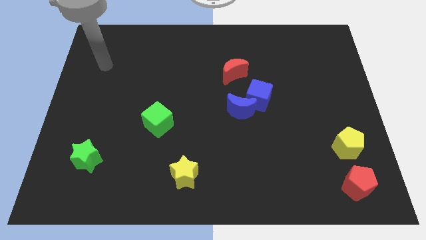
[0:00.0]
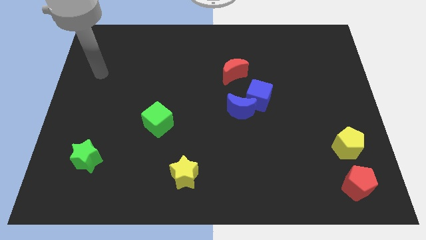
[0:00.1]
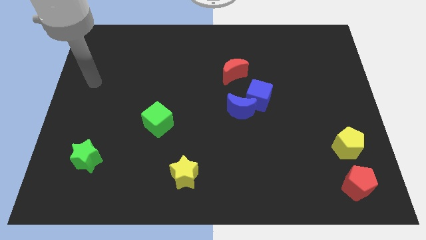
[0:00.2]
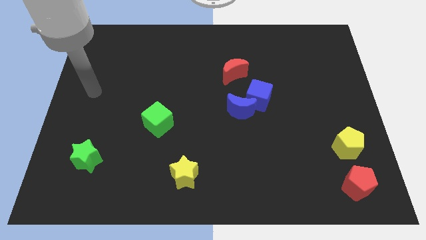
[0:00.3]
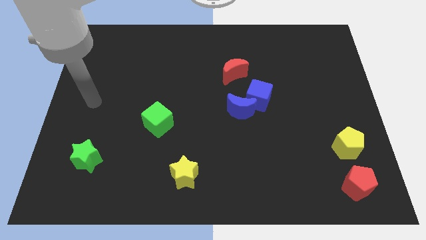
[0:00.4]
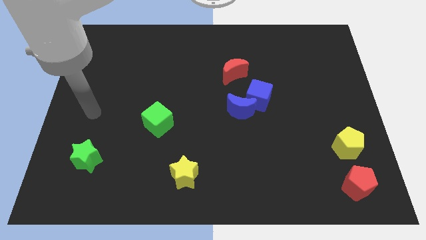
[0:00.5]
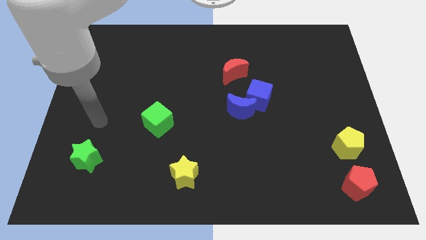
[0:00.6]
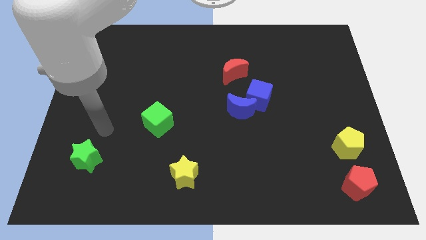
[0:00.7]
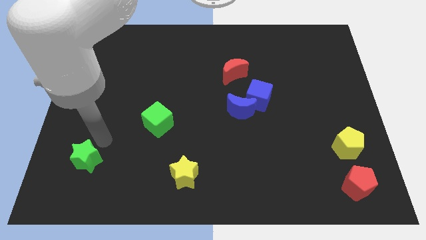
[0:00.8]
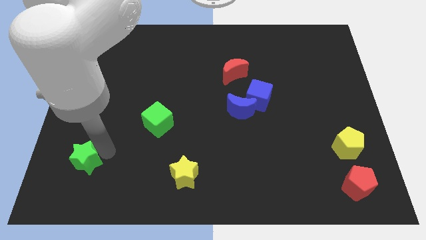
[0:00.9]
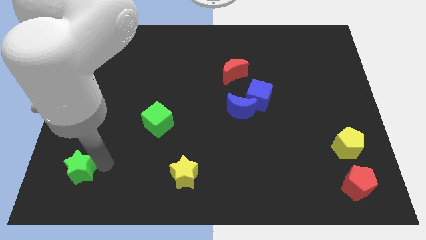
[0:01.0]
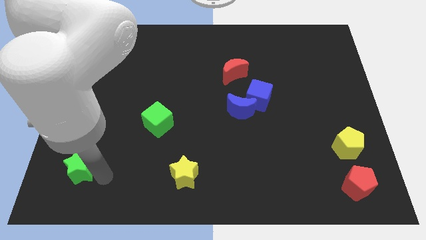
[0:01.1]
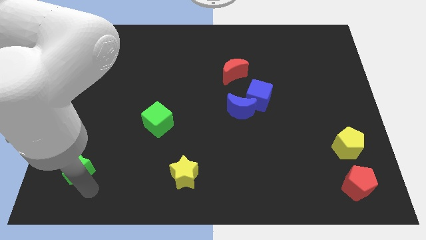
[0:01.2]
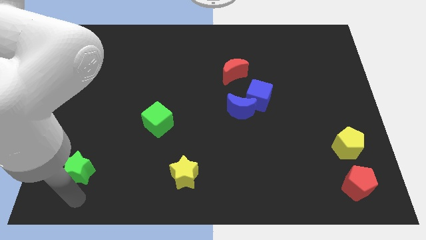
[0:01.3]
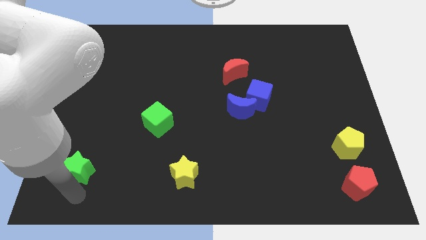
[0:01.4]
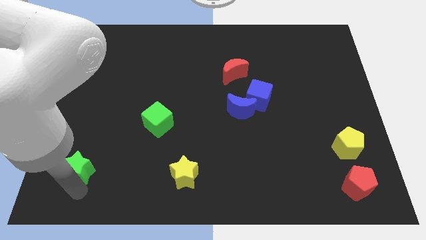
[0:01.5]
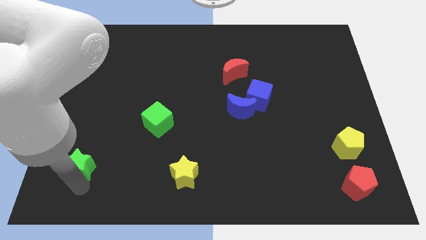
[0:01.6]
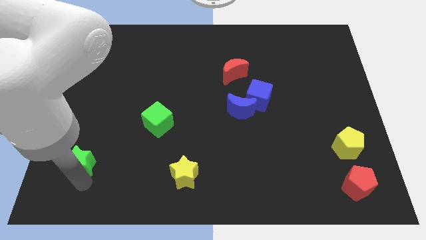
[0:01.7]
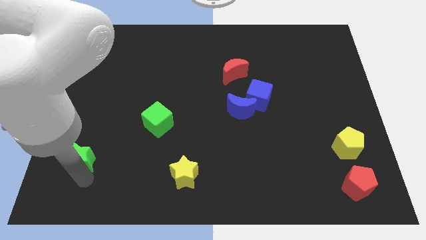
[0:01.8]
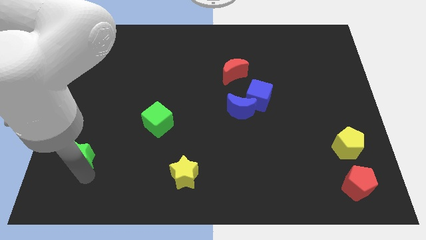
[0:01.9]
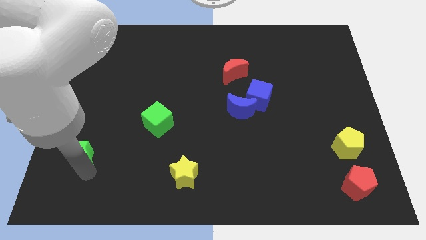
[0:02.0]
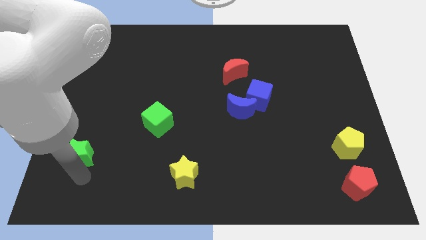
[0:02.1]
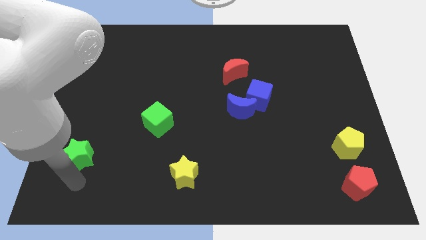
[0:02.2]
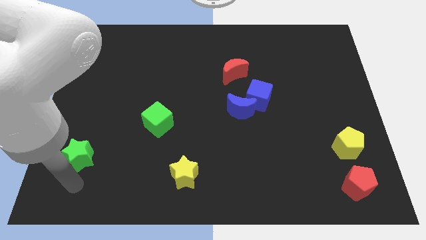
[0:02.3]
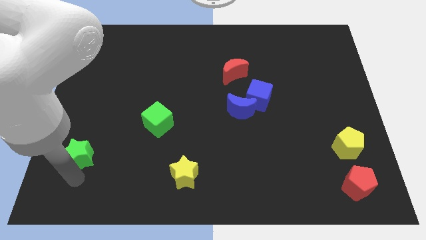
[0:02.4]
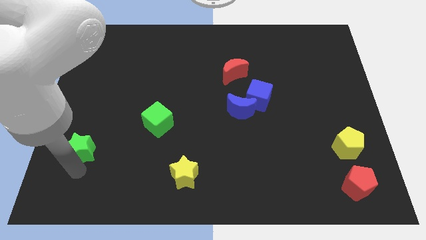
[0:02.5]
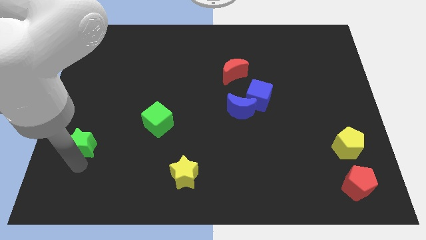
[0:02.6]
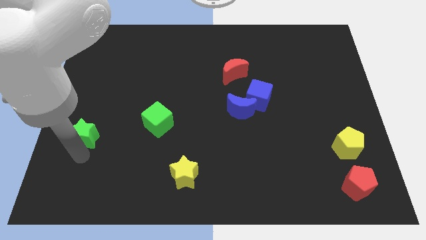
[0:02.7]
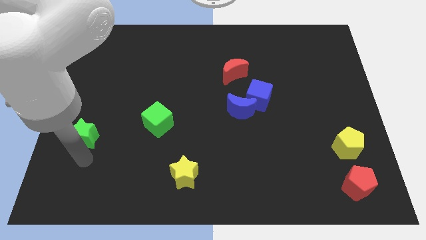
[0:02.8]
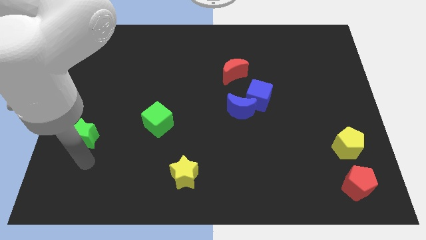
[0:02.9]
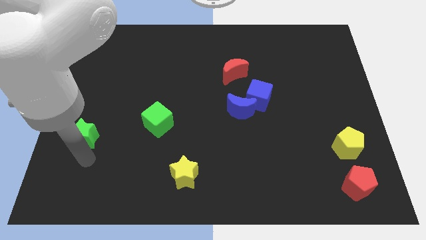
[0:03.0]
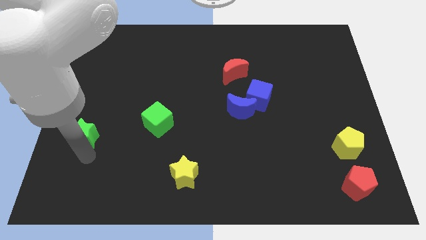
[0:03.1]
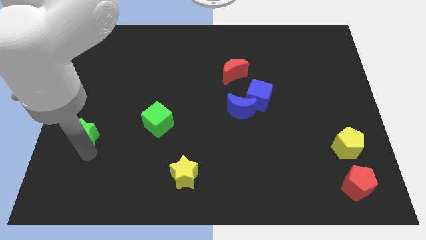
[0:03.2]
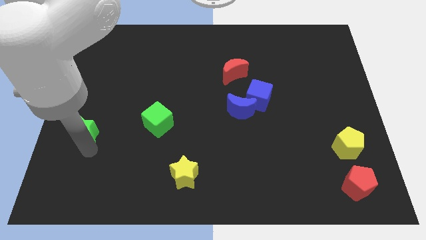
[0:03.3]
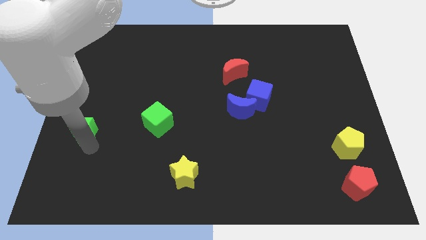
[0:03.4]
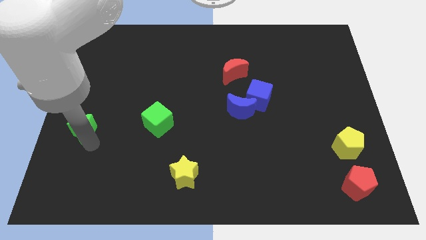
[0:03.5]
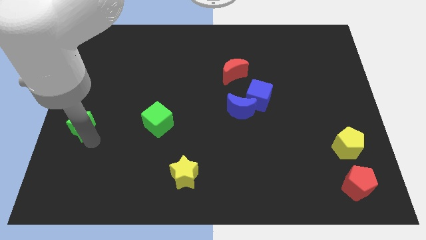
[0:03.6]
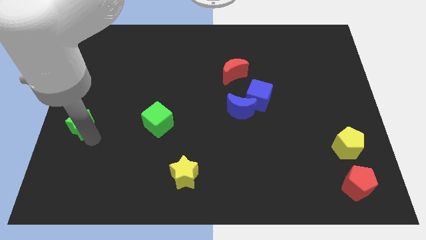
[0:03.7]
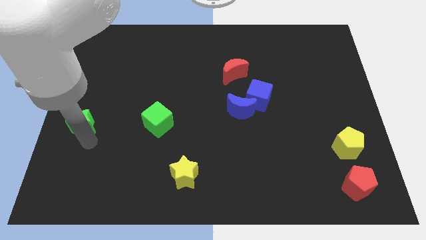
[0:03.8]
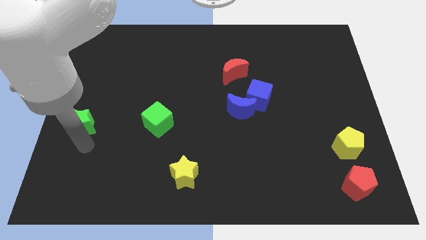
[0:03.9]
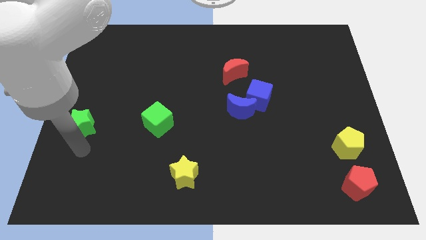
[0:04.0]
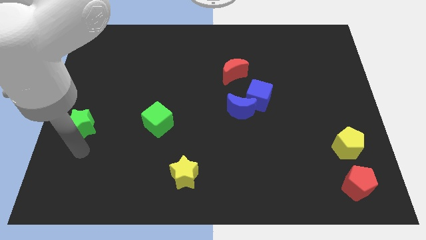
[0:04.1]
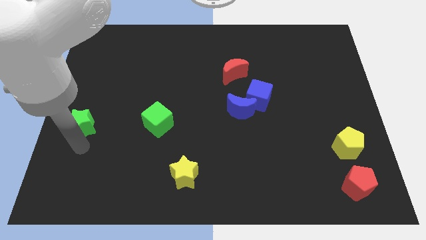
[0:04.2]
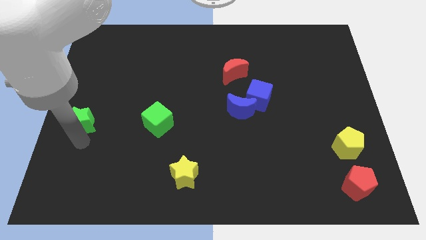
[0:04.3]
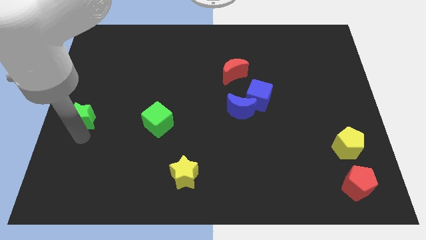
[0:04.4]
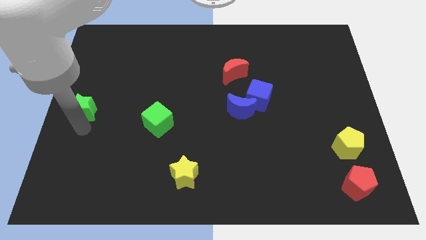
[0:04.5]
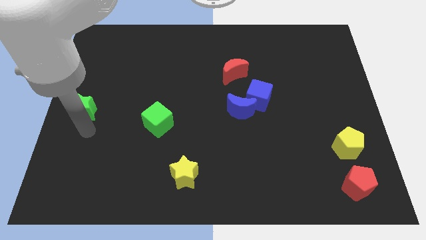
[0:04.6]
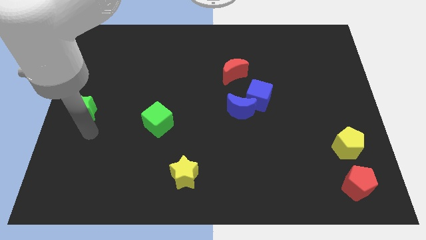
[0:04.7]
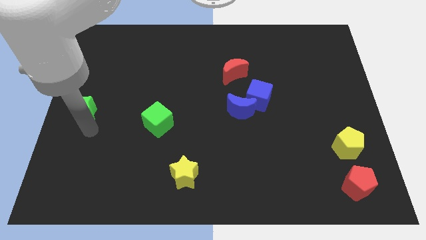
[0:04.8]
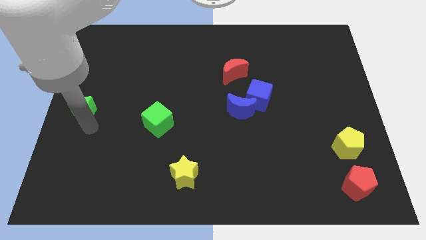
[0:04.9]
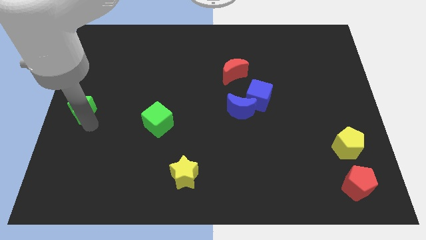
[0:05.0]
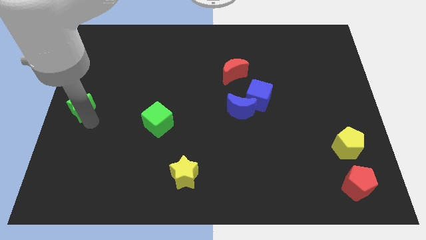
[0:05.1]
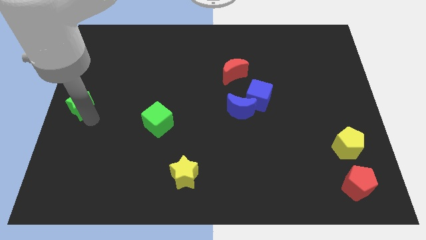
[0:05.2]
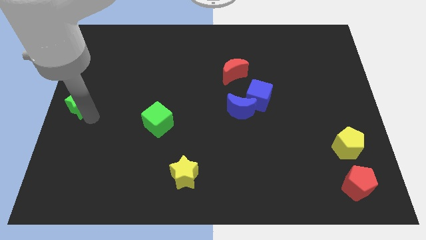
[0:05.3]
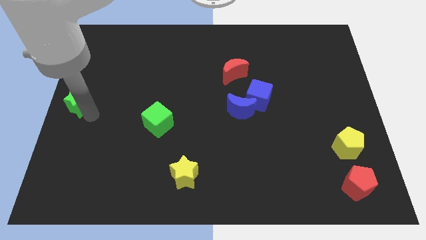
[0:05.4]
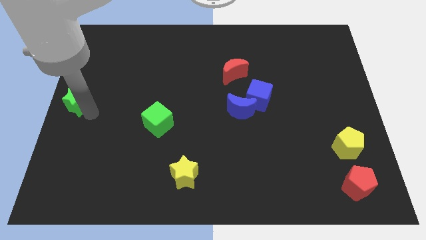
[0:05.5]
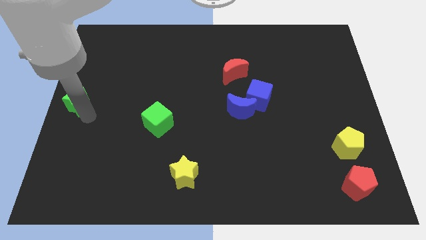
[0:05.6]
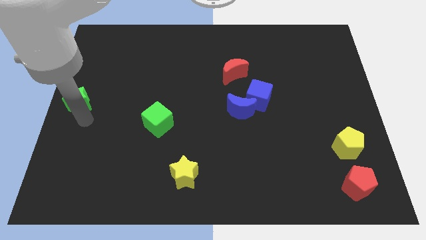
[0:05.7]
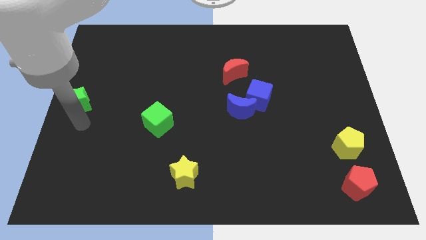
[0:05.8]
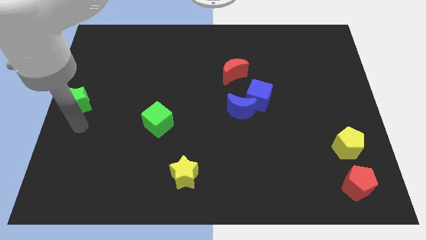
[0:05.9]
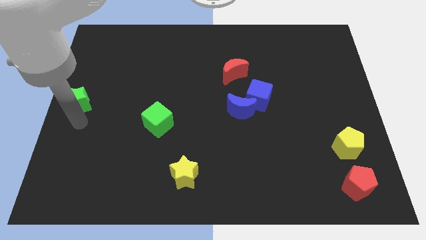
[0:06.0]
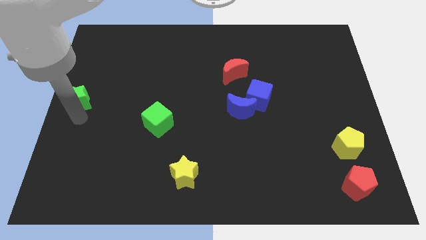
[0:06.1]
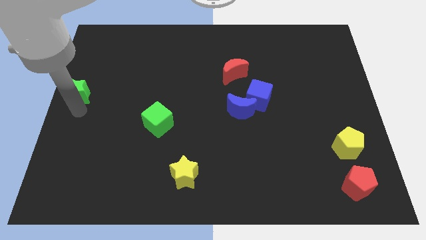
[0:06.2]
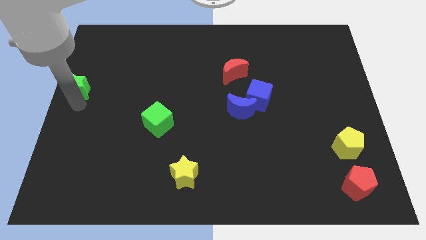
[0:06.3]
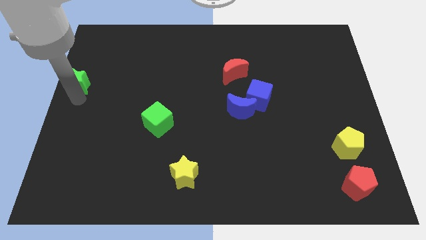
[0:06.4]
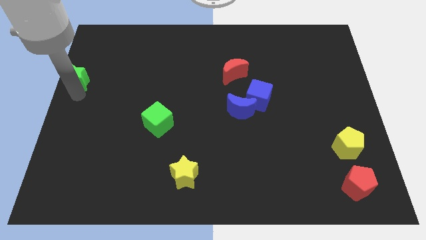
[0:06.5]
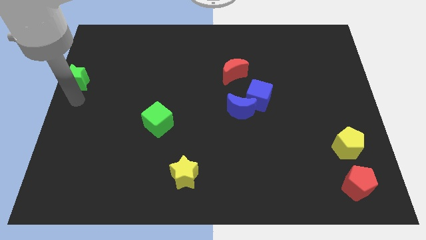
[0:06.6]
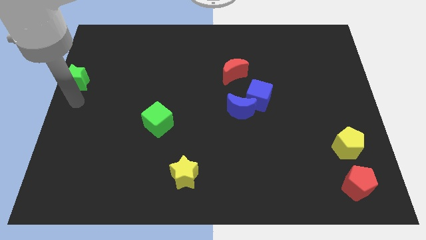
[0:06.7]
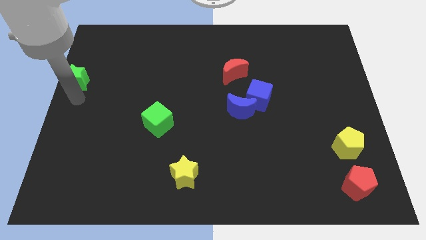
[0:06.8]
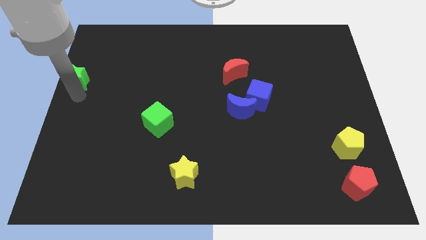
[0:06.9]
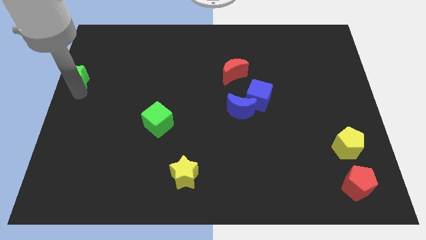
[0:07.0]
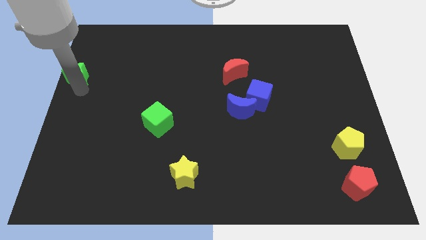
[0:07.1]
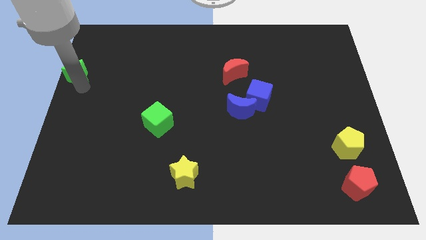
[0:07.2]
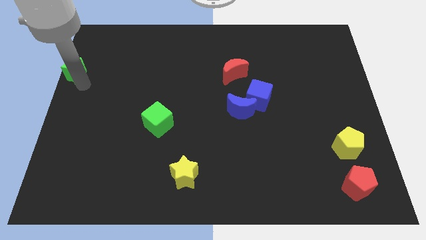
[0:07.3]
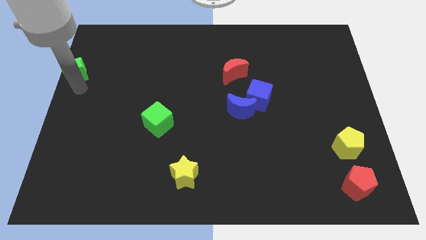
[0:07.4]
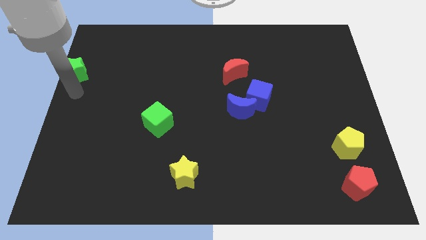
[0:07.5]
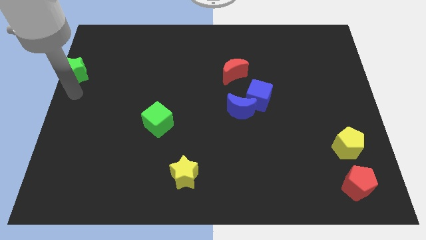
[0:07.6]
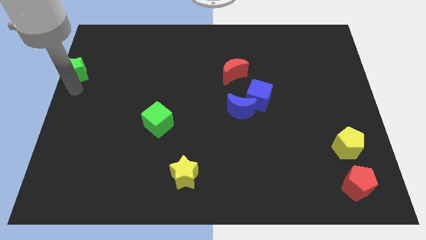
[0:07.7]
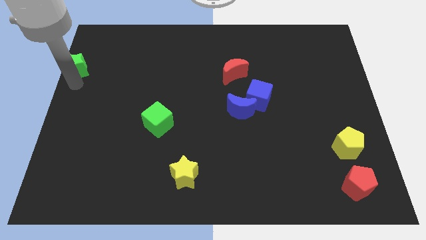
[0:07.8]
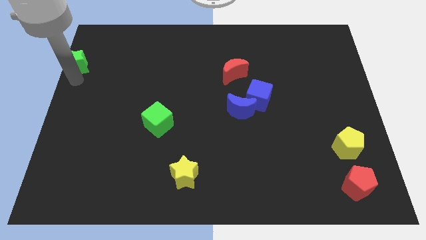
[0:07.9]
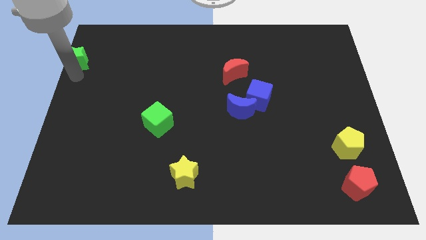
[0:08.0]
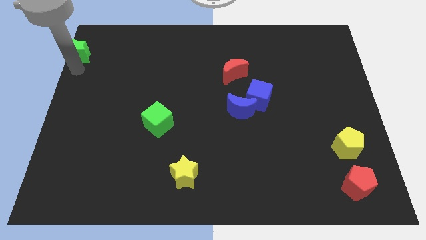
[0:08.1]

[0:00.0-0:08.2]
move the green star to the top left
